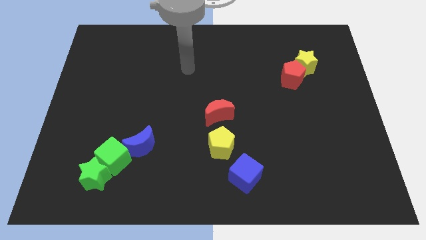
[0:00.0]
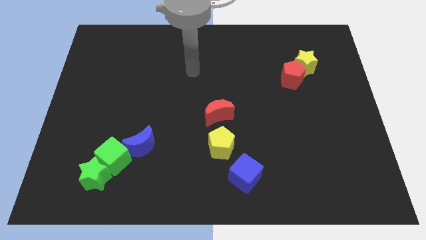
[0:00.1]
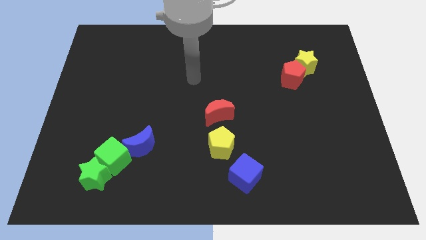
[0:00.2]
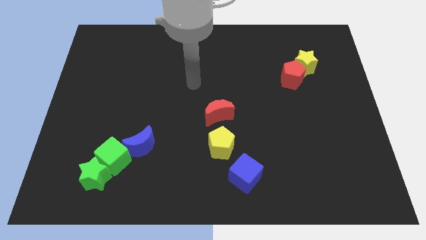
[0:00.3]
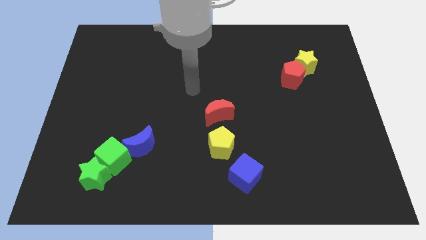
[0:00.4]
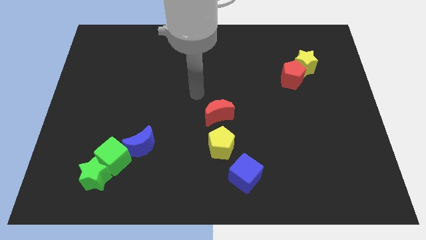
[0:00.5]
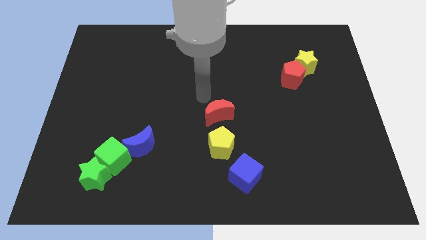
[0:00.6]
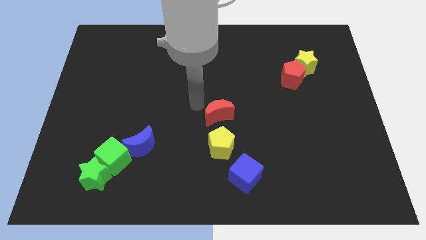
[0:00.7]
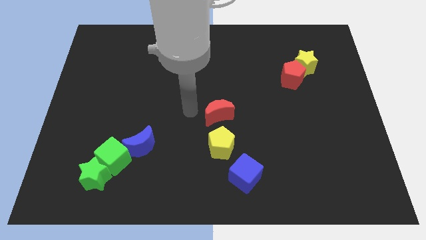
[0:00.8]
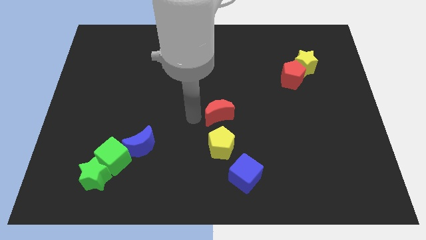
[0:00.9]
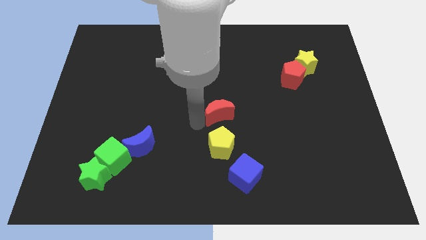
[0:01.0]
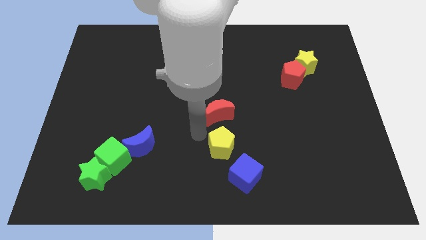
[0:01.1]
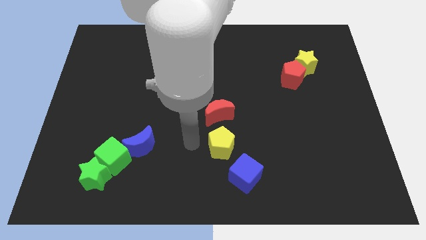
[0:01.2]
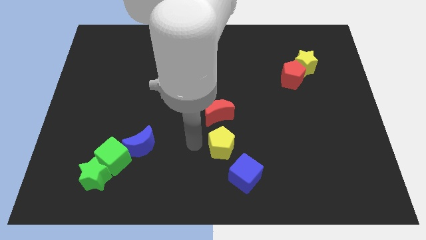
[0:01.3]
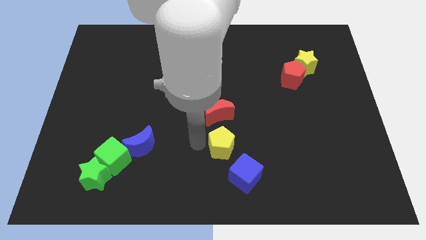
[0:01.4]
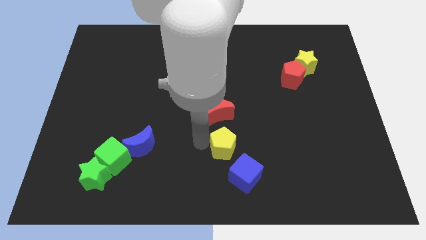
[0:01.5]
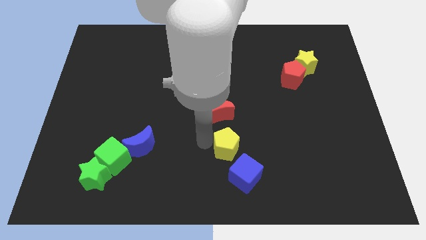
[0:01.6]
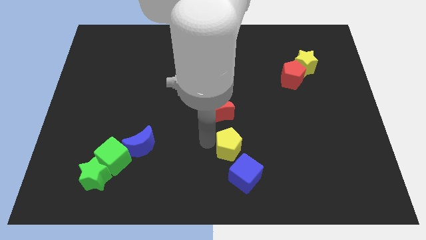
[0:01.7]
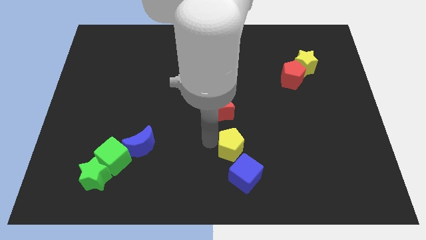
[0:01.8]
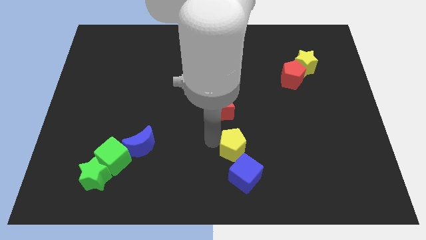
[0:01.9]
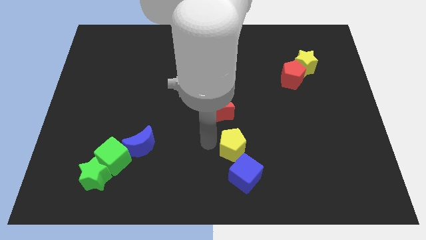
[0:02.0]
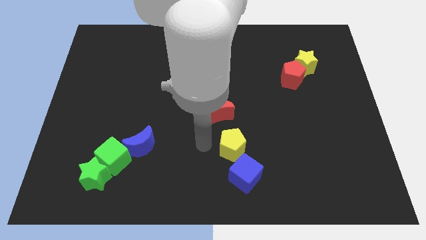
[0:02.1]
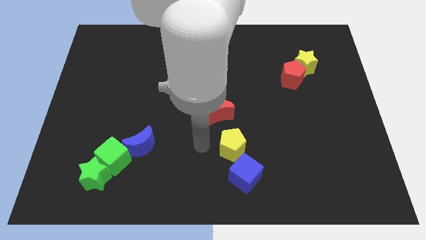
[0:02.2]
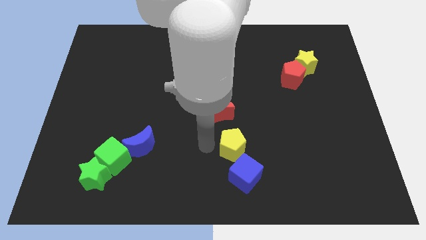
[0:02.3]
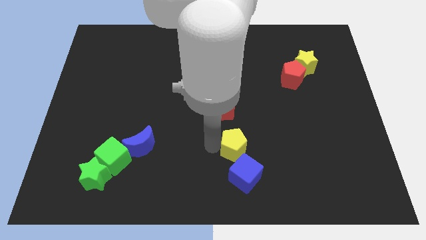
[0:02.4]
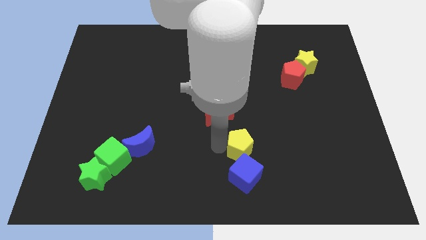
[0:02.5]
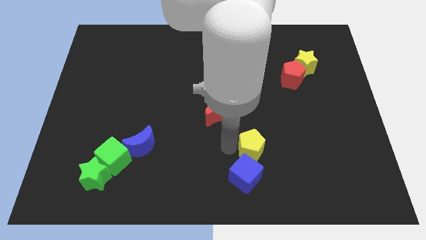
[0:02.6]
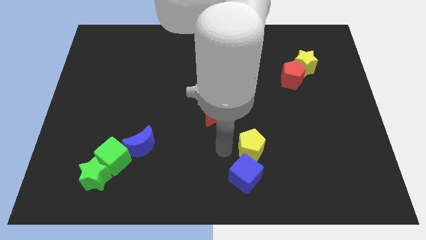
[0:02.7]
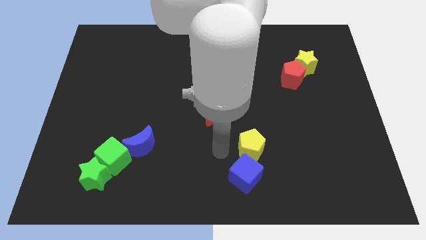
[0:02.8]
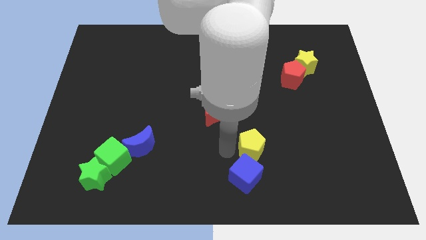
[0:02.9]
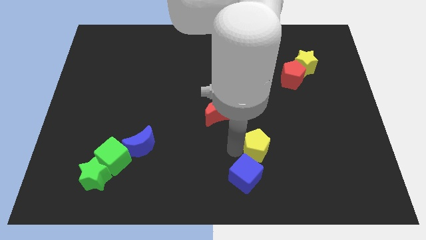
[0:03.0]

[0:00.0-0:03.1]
push the yellow pentagon right a little bit

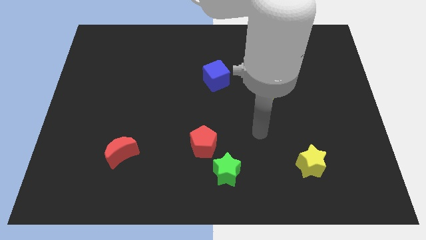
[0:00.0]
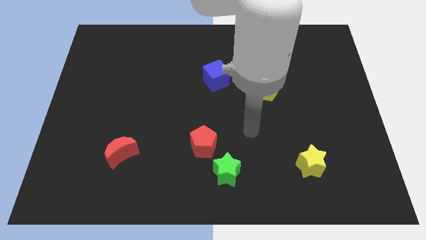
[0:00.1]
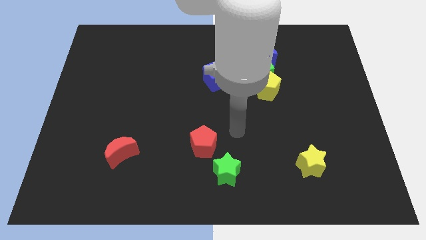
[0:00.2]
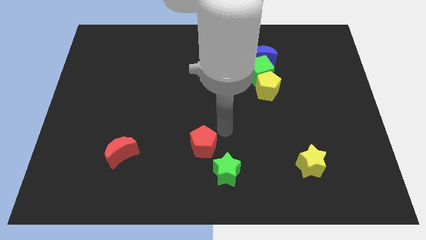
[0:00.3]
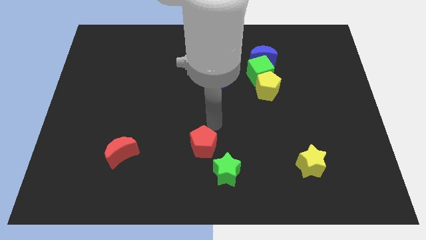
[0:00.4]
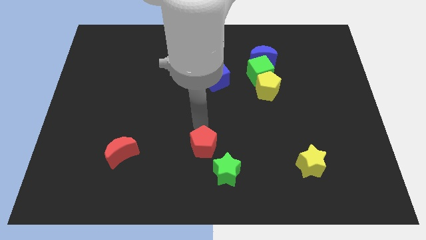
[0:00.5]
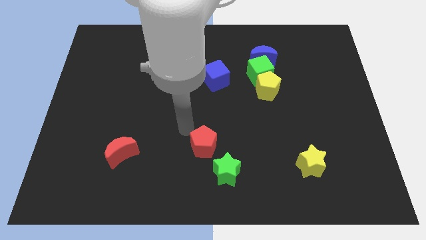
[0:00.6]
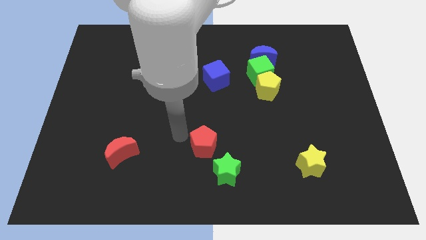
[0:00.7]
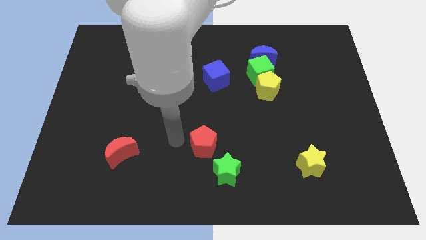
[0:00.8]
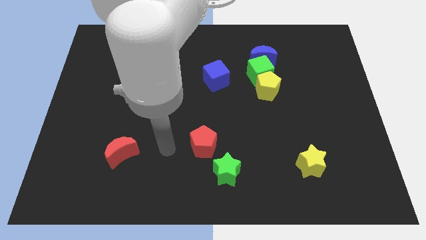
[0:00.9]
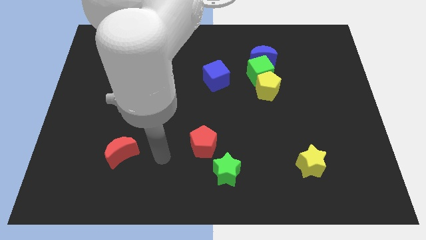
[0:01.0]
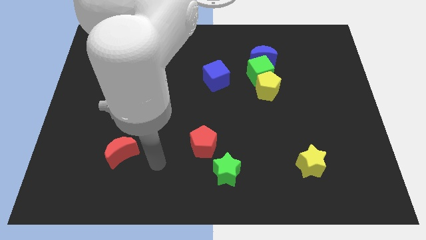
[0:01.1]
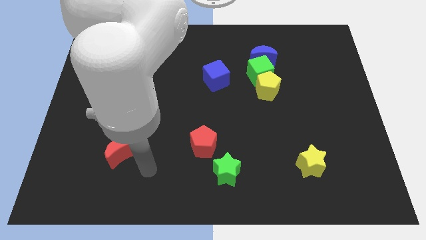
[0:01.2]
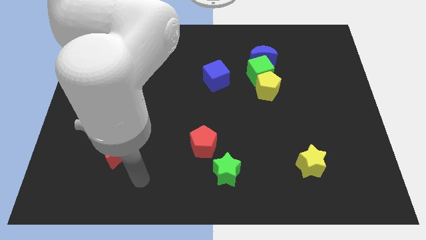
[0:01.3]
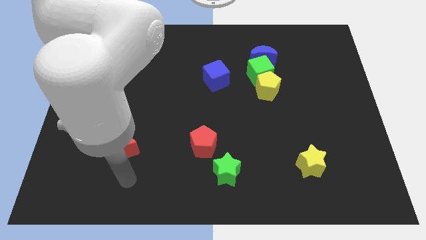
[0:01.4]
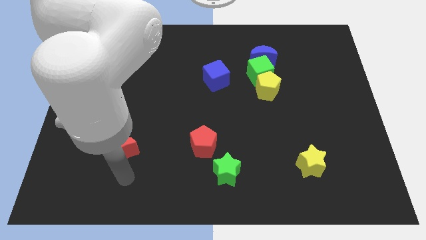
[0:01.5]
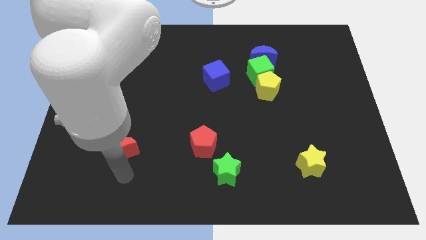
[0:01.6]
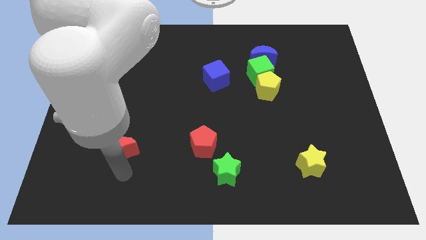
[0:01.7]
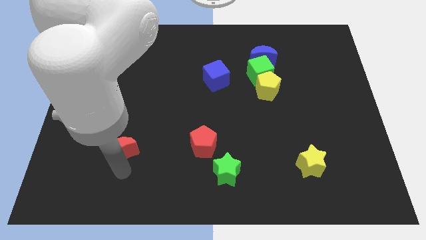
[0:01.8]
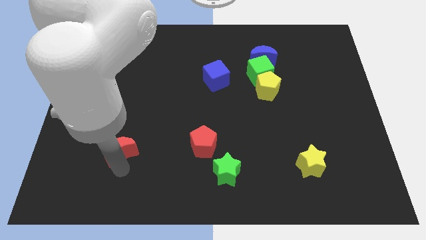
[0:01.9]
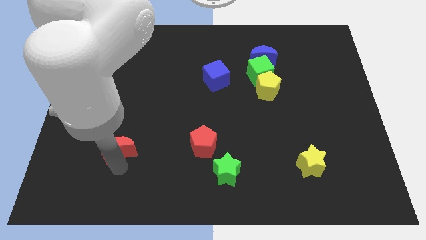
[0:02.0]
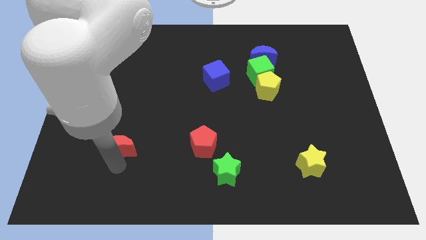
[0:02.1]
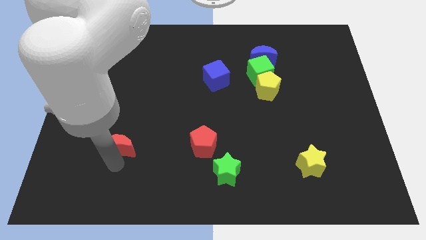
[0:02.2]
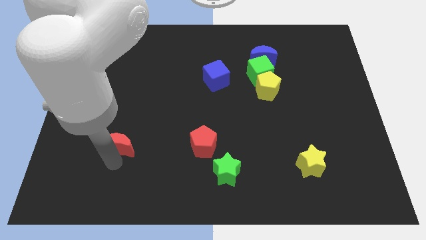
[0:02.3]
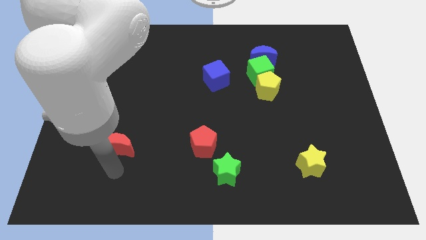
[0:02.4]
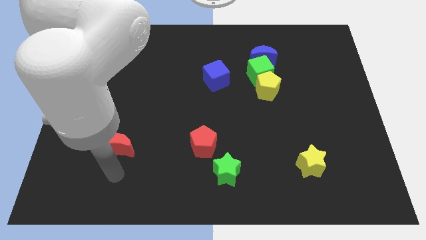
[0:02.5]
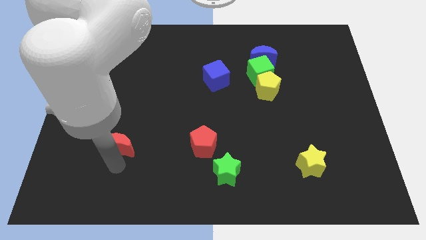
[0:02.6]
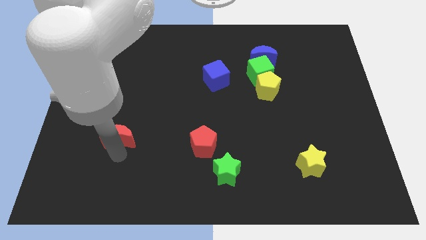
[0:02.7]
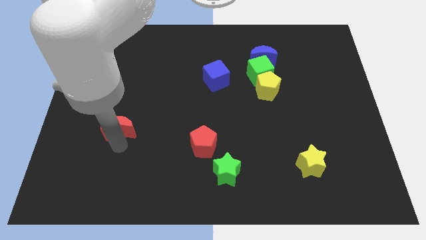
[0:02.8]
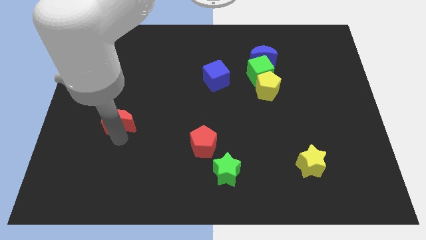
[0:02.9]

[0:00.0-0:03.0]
move the red moon a little upwards

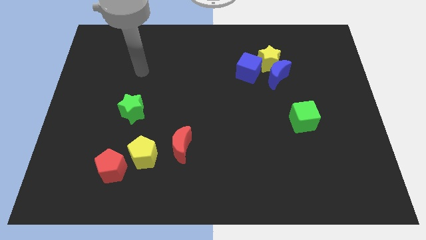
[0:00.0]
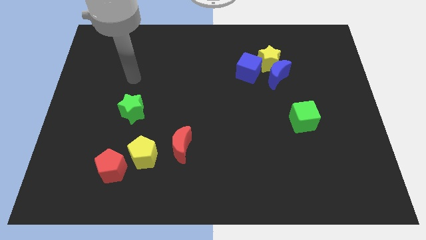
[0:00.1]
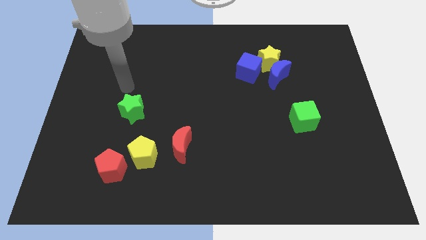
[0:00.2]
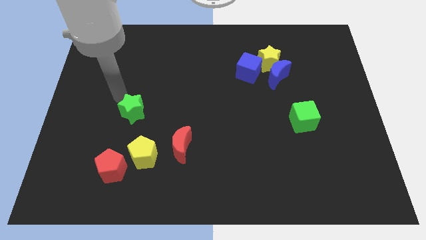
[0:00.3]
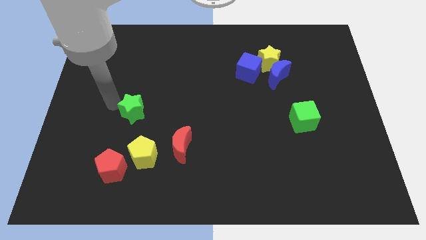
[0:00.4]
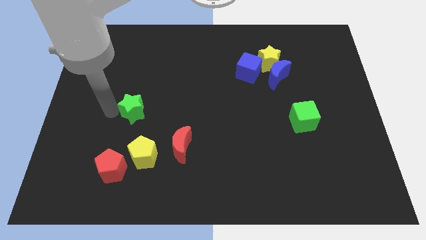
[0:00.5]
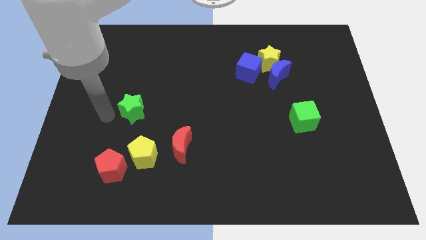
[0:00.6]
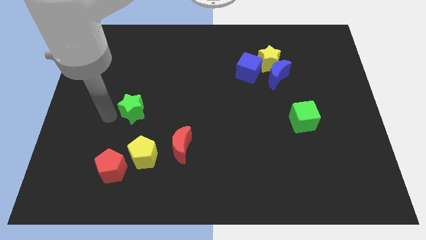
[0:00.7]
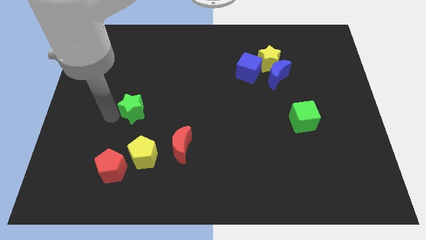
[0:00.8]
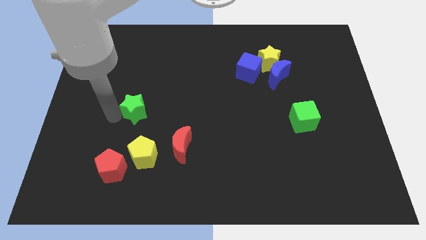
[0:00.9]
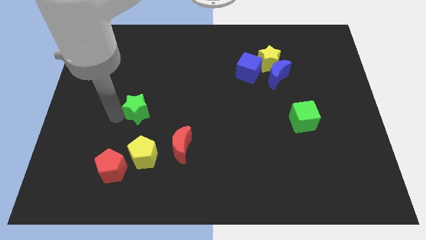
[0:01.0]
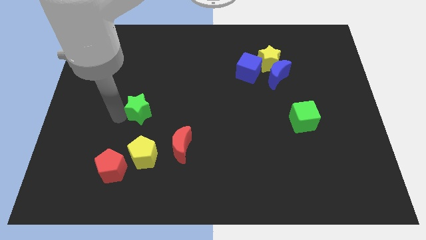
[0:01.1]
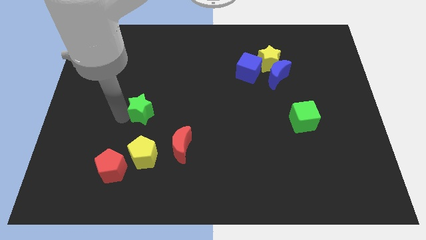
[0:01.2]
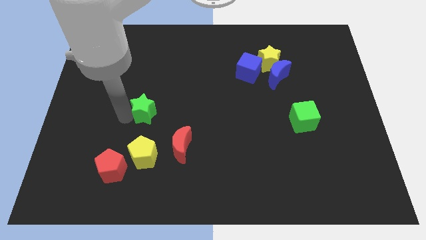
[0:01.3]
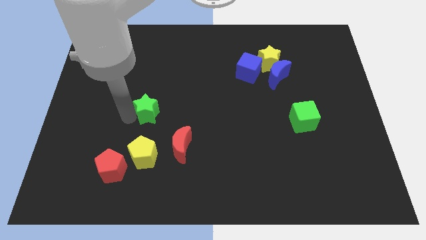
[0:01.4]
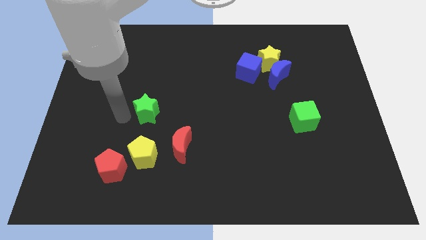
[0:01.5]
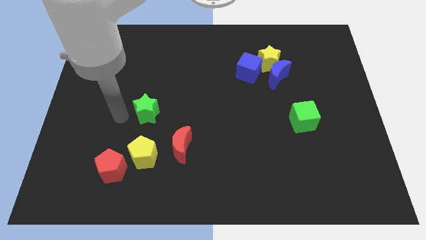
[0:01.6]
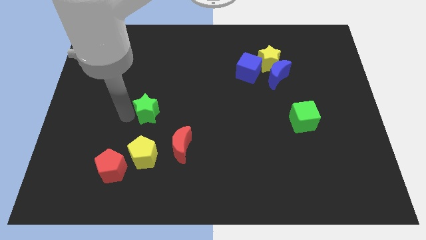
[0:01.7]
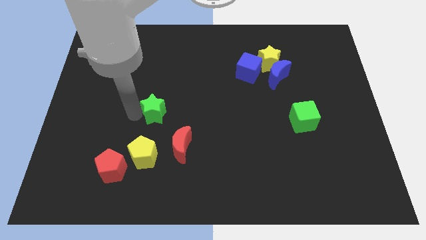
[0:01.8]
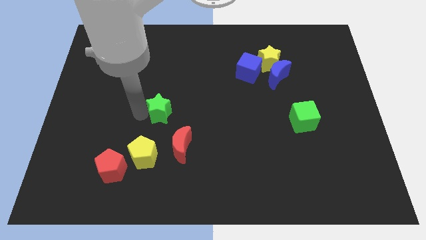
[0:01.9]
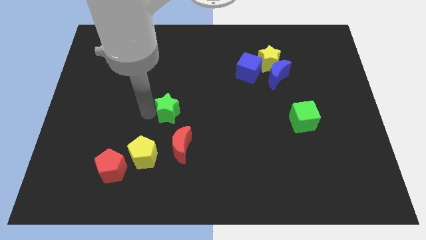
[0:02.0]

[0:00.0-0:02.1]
slide the green star right a little bit
